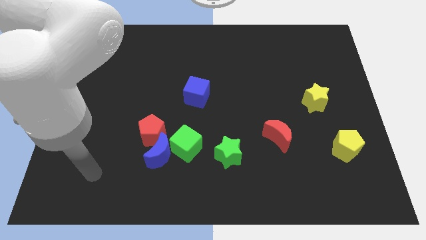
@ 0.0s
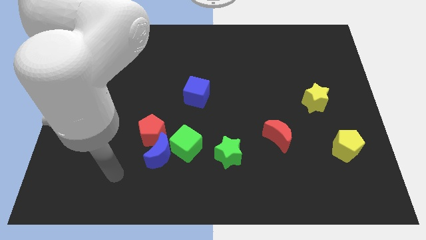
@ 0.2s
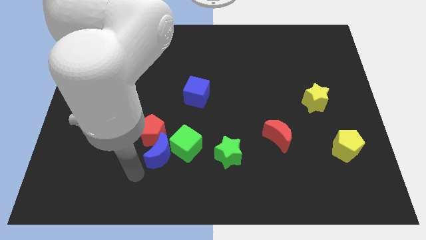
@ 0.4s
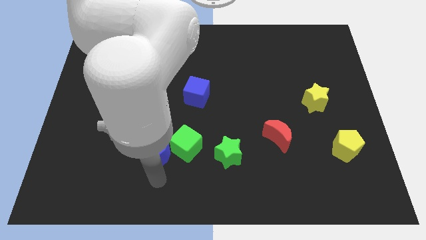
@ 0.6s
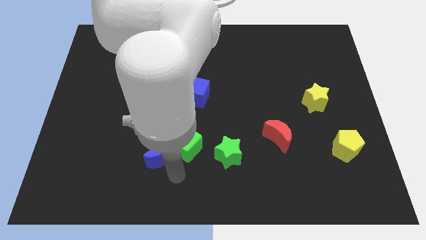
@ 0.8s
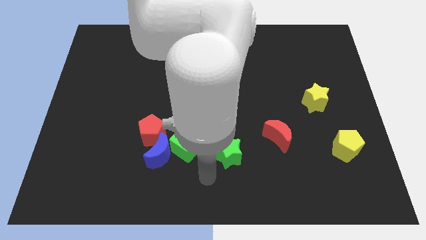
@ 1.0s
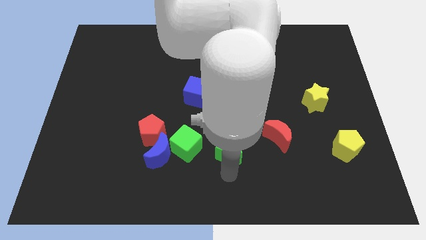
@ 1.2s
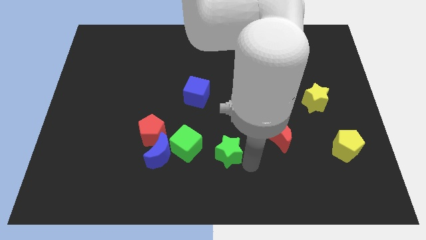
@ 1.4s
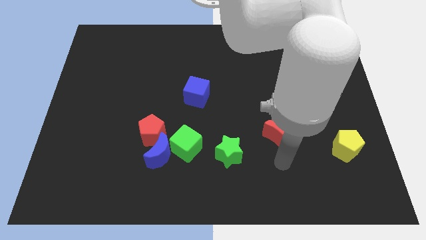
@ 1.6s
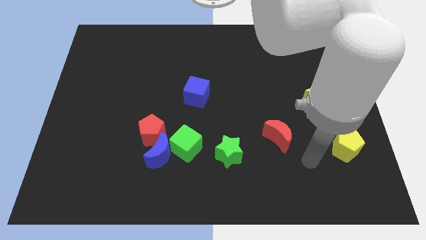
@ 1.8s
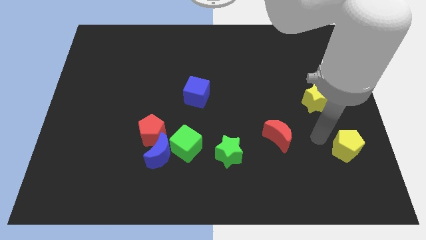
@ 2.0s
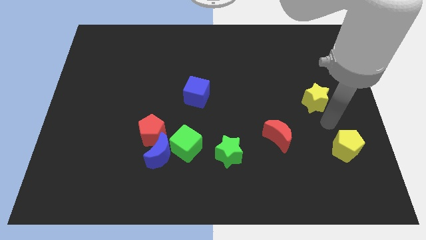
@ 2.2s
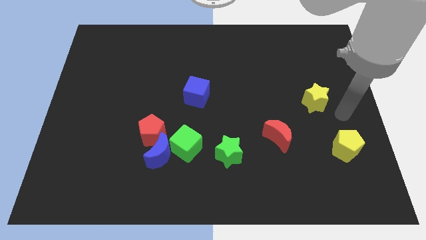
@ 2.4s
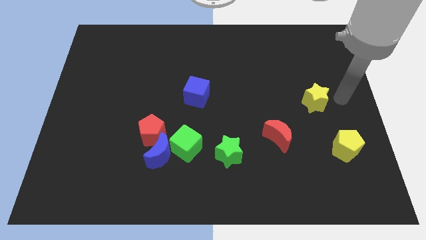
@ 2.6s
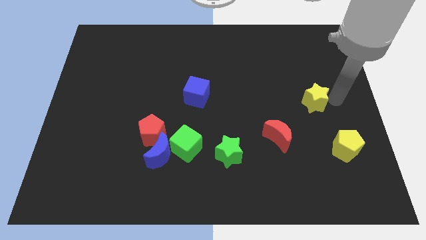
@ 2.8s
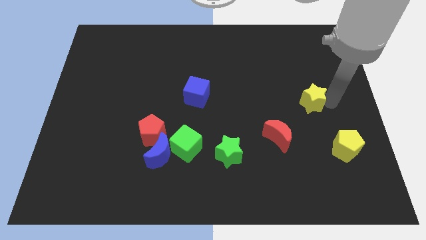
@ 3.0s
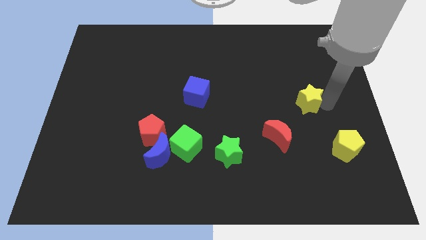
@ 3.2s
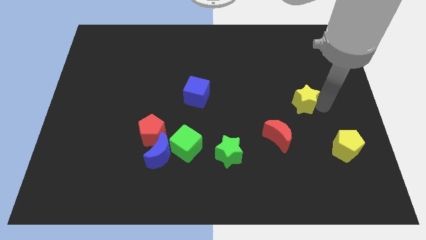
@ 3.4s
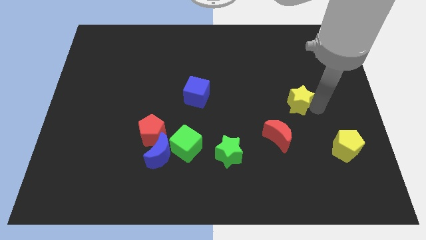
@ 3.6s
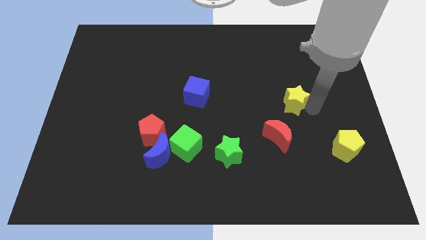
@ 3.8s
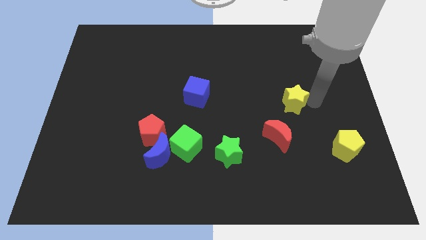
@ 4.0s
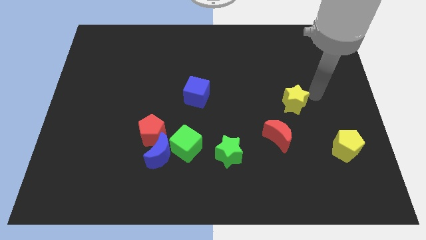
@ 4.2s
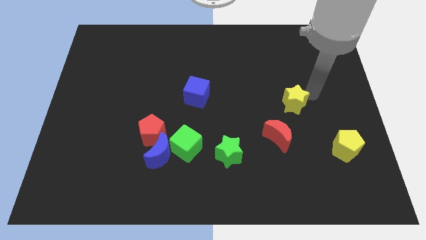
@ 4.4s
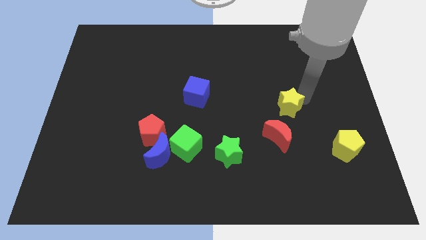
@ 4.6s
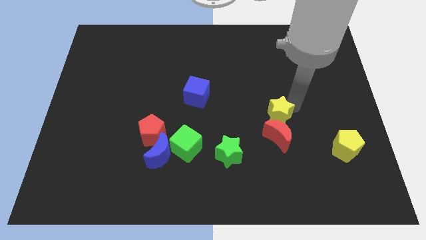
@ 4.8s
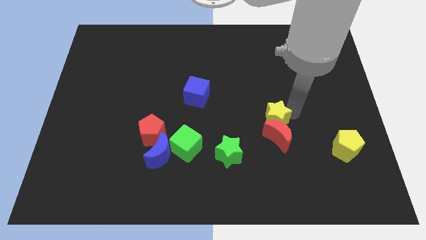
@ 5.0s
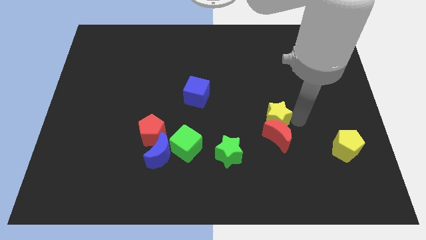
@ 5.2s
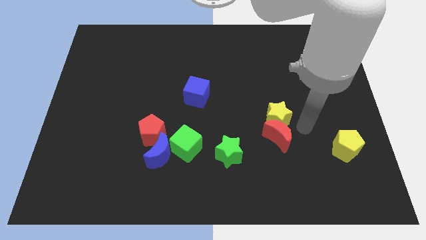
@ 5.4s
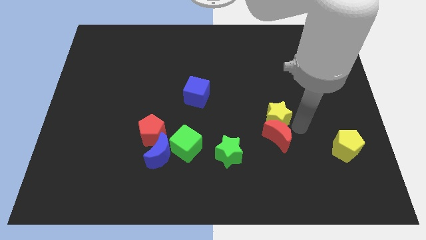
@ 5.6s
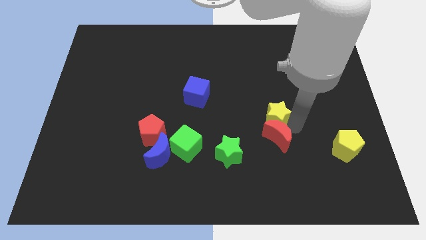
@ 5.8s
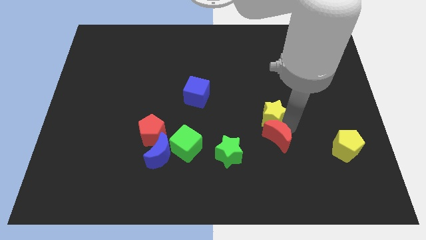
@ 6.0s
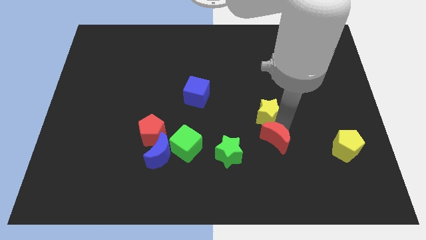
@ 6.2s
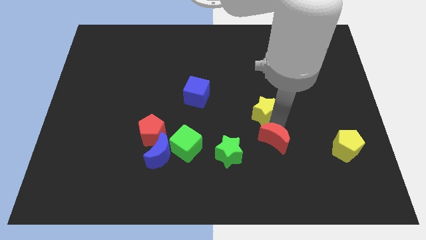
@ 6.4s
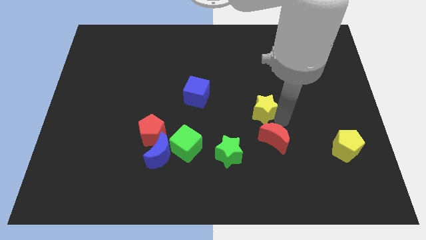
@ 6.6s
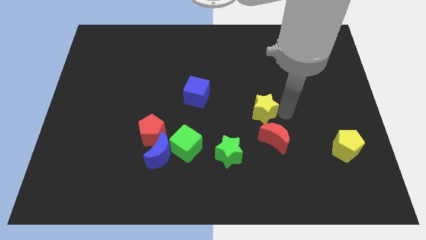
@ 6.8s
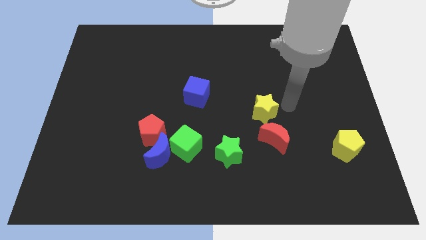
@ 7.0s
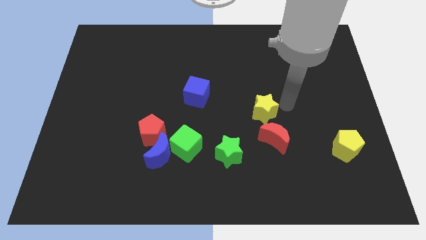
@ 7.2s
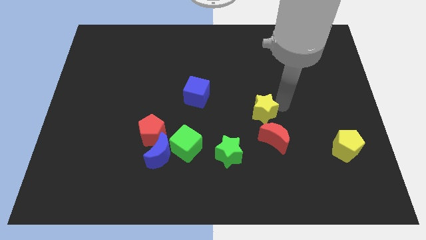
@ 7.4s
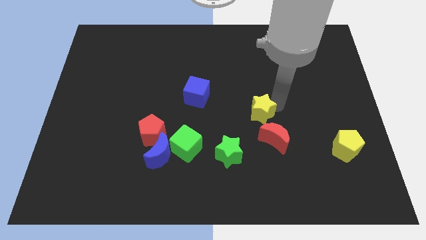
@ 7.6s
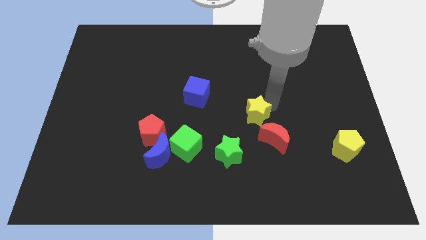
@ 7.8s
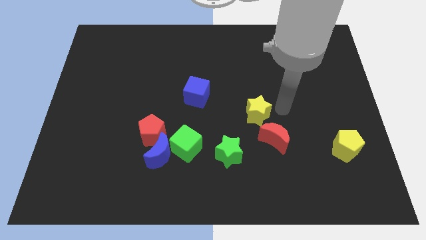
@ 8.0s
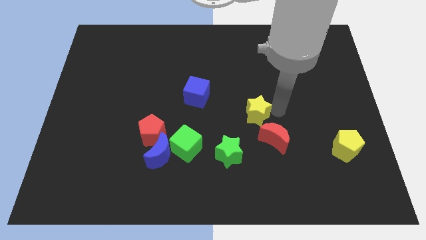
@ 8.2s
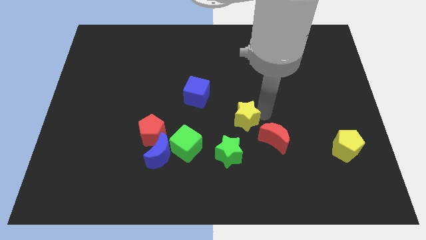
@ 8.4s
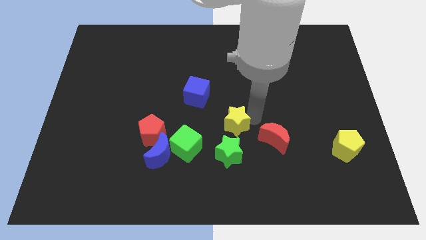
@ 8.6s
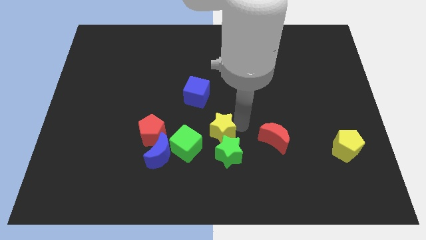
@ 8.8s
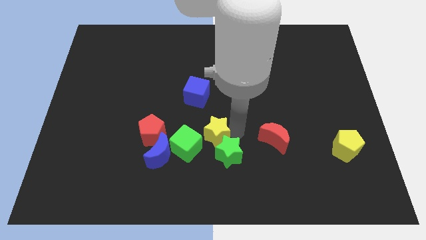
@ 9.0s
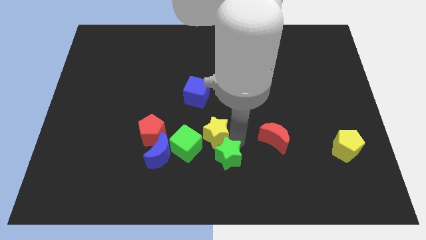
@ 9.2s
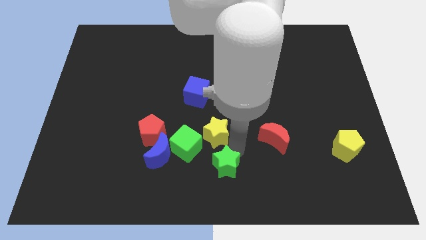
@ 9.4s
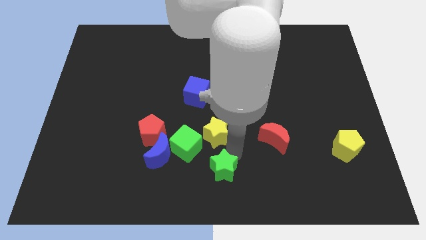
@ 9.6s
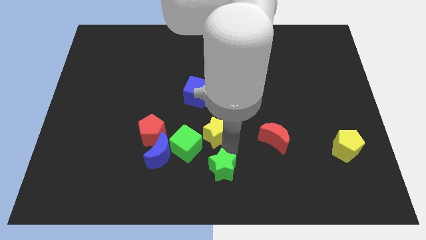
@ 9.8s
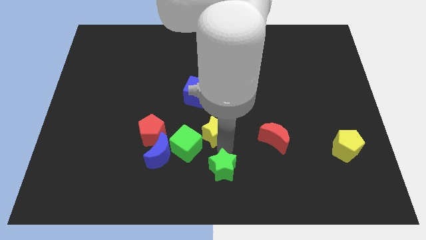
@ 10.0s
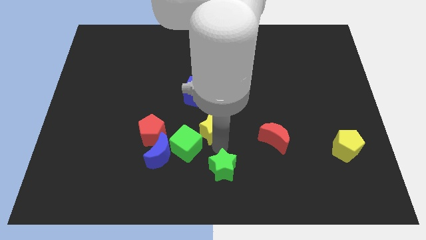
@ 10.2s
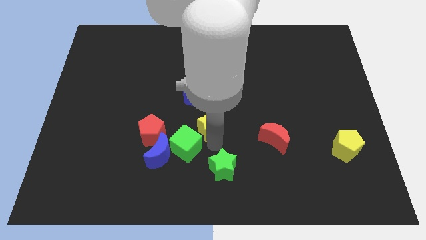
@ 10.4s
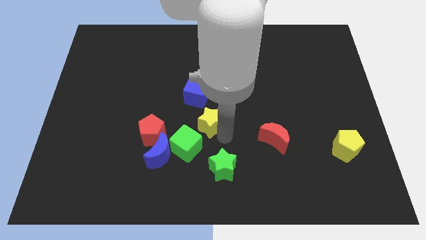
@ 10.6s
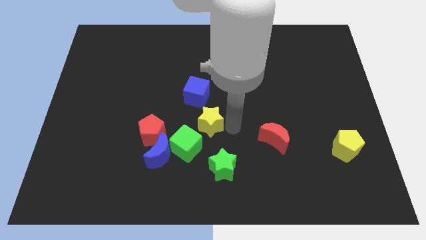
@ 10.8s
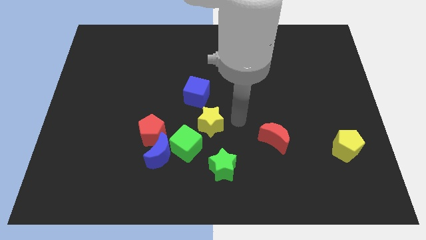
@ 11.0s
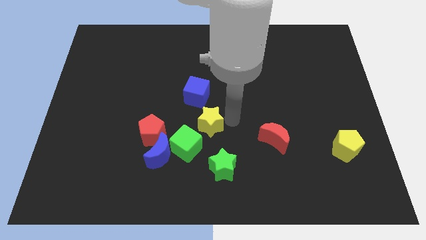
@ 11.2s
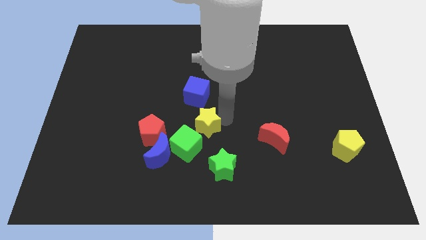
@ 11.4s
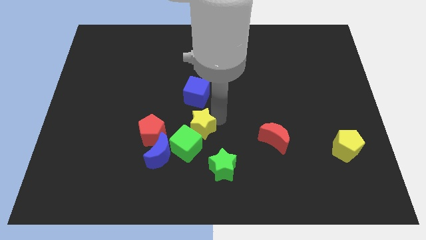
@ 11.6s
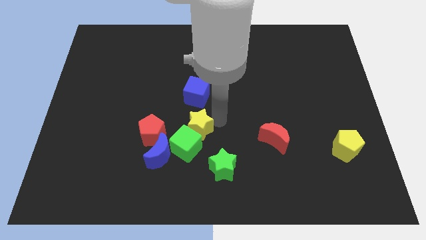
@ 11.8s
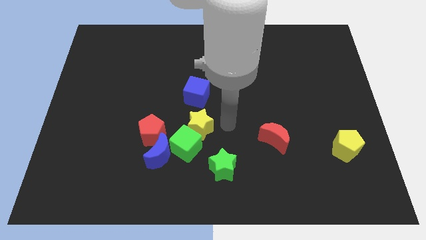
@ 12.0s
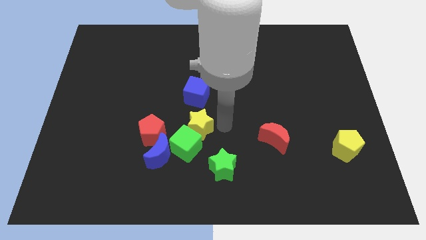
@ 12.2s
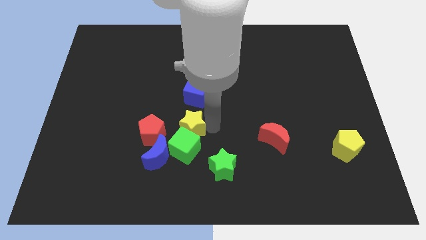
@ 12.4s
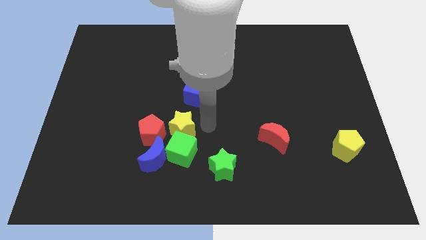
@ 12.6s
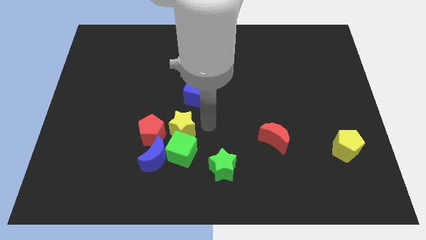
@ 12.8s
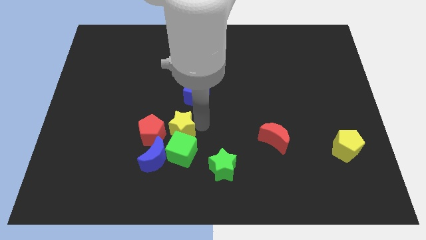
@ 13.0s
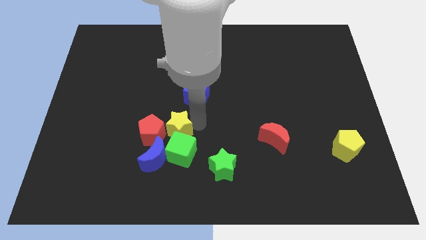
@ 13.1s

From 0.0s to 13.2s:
move the yellow star next to the red pentagon
